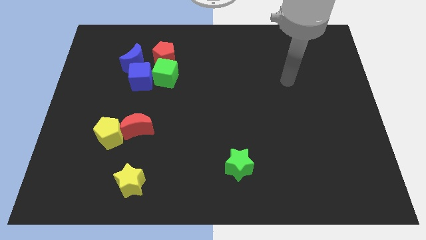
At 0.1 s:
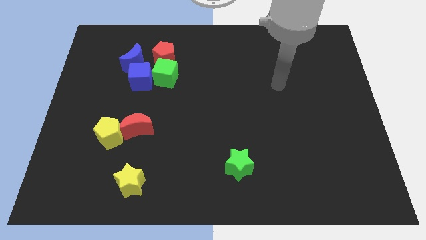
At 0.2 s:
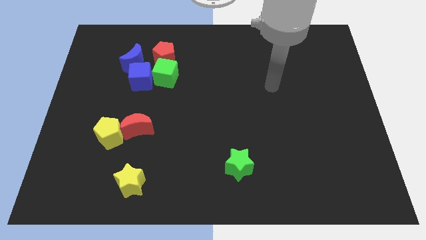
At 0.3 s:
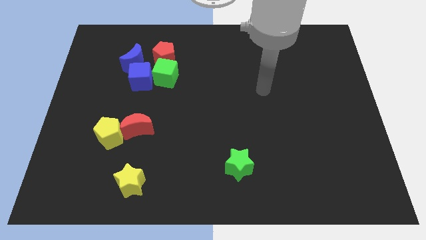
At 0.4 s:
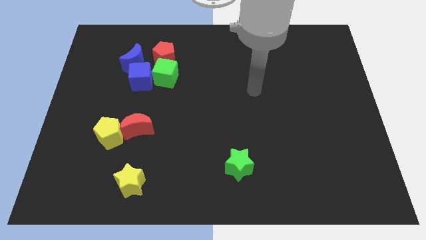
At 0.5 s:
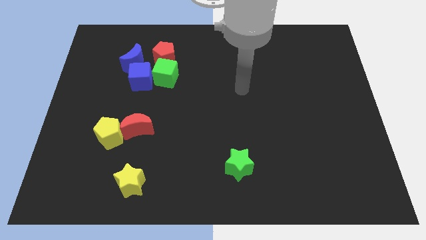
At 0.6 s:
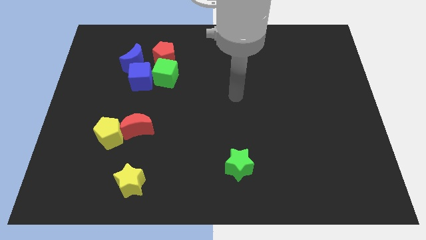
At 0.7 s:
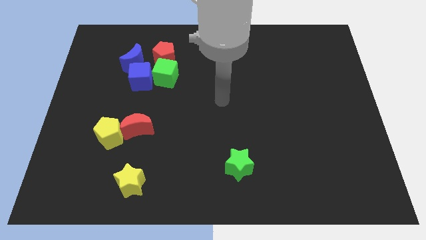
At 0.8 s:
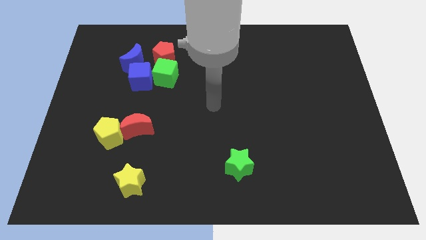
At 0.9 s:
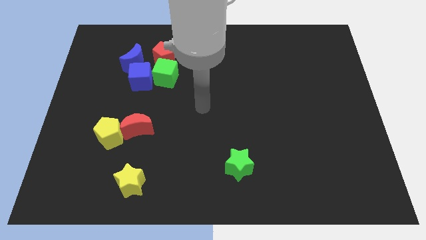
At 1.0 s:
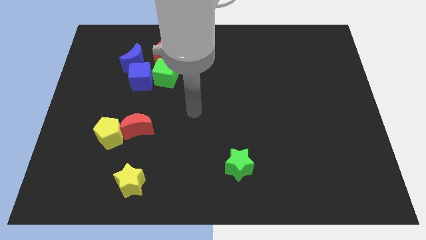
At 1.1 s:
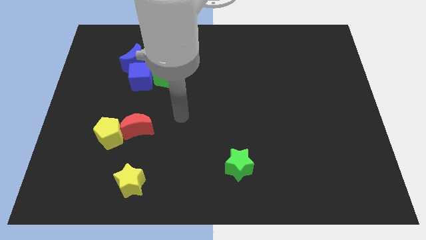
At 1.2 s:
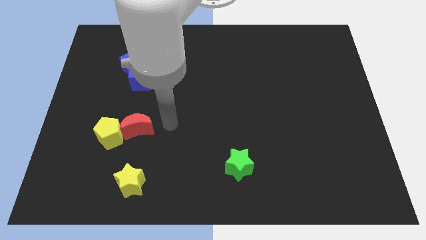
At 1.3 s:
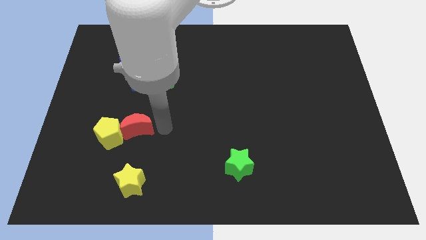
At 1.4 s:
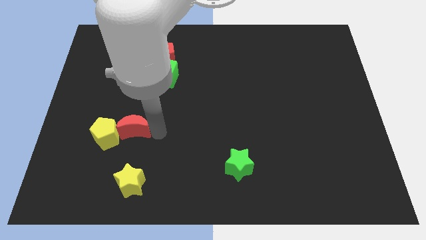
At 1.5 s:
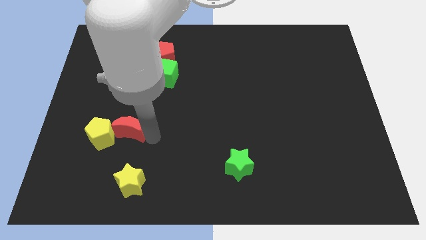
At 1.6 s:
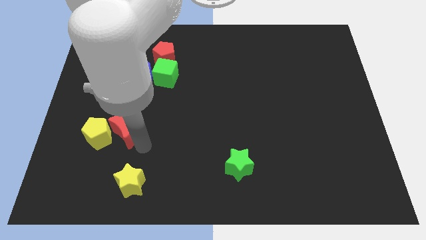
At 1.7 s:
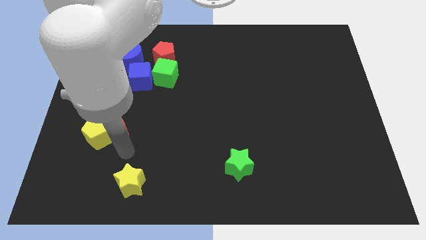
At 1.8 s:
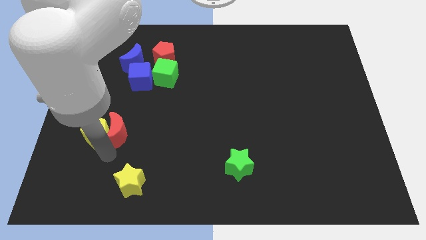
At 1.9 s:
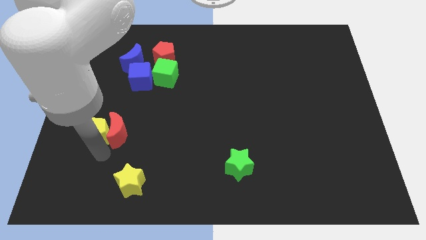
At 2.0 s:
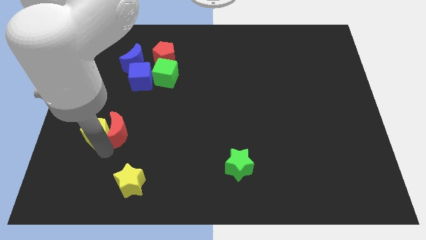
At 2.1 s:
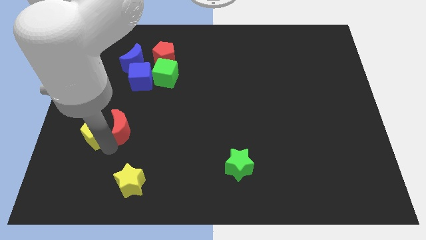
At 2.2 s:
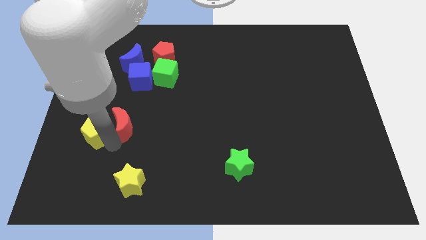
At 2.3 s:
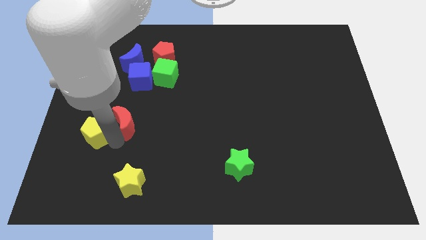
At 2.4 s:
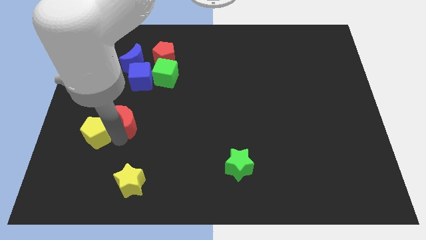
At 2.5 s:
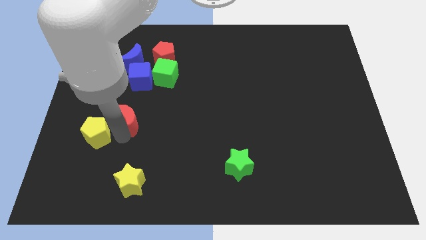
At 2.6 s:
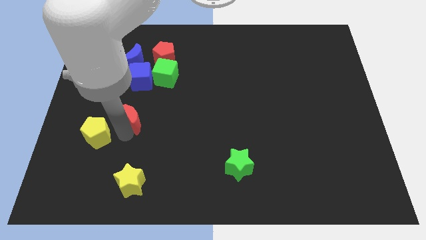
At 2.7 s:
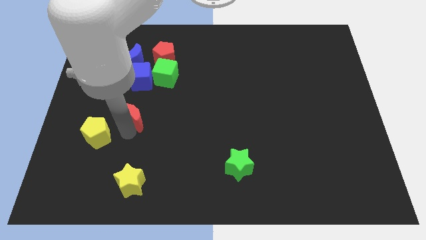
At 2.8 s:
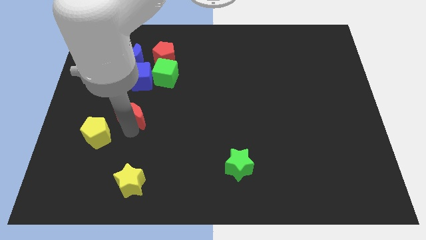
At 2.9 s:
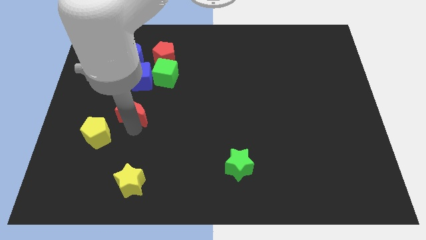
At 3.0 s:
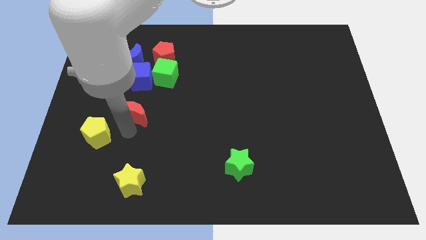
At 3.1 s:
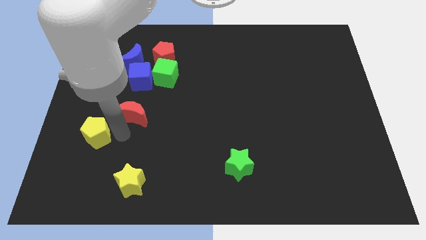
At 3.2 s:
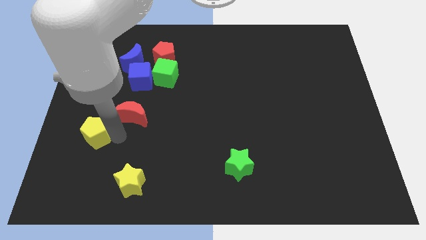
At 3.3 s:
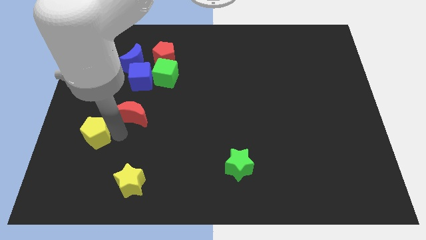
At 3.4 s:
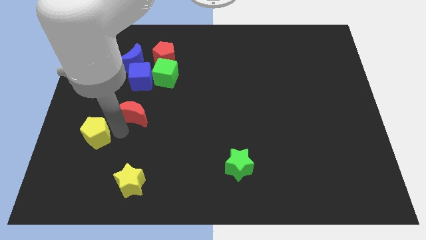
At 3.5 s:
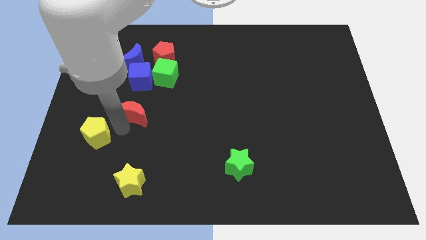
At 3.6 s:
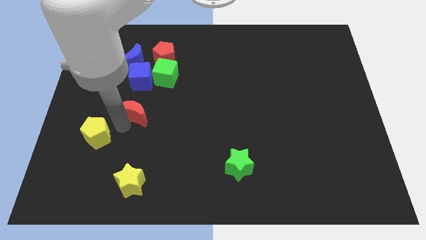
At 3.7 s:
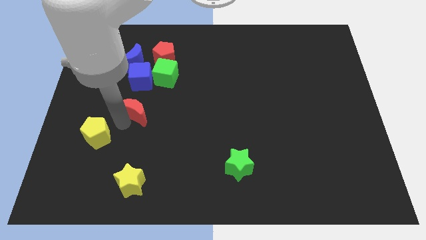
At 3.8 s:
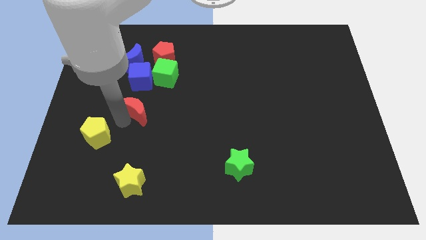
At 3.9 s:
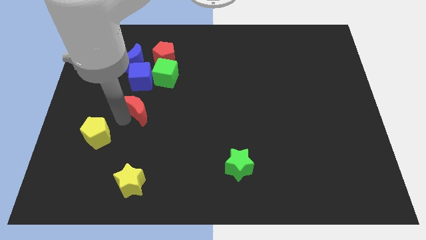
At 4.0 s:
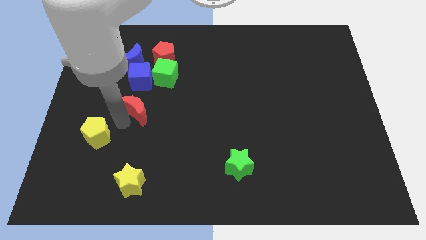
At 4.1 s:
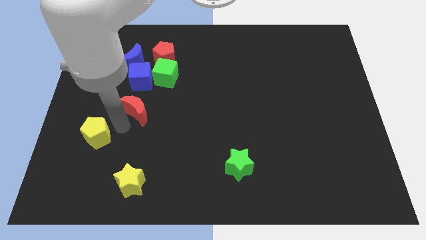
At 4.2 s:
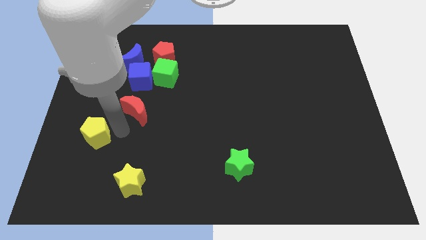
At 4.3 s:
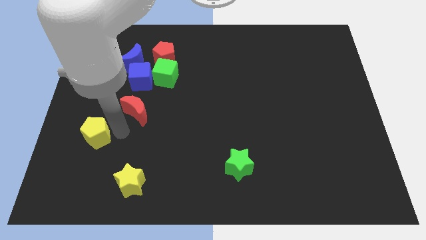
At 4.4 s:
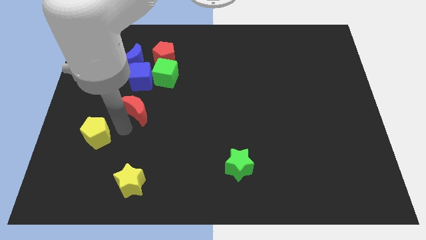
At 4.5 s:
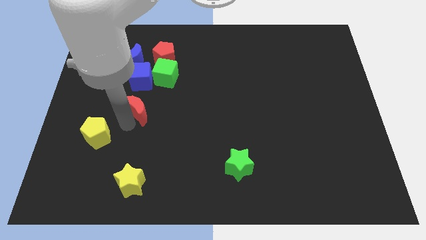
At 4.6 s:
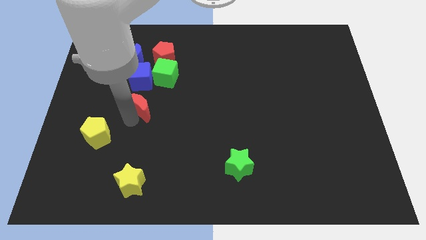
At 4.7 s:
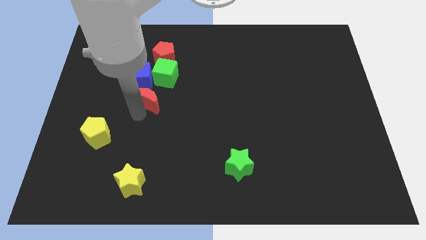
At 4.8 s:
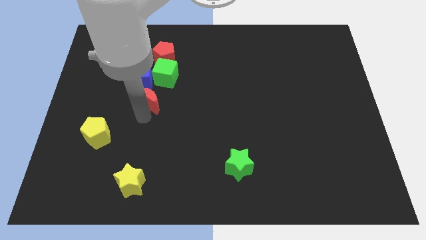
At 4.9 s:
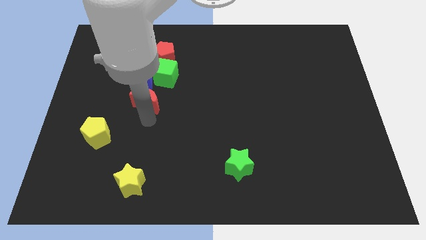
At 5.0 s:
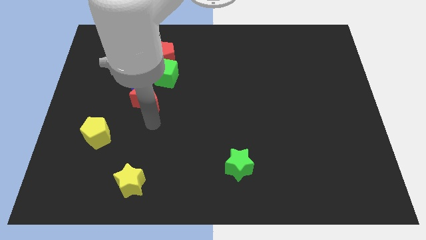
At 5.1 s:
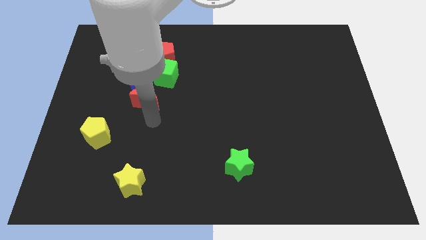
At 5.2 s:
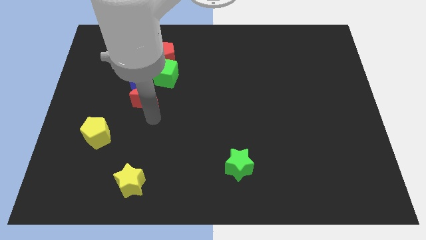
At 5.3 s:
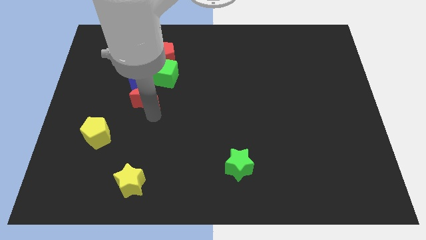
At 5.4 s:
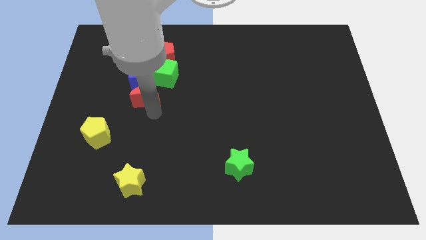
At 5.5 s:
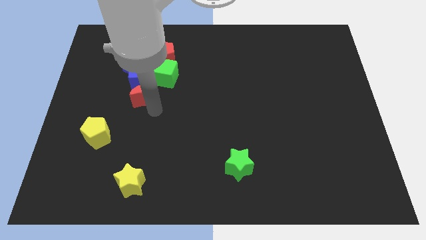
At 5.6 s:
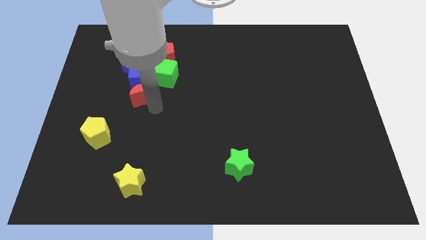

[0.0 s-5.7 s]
put the red moon to the blue cube
